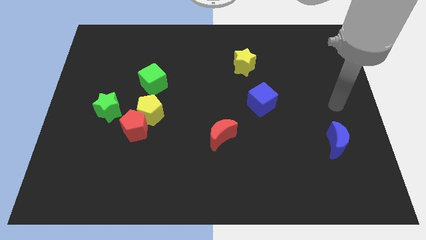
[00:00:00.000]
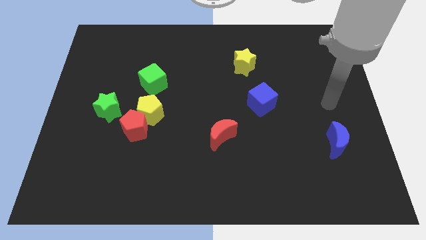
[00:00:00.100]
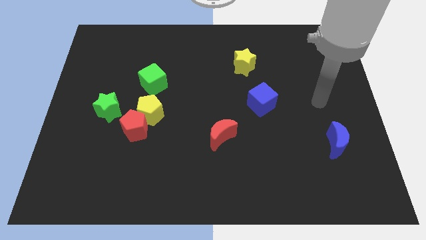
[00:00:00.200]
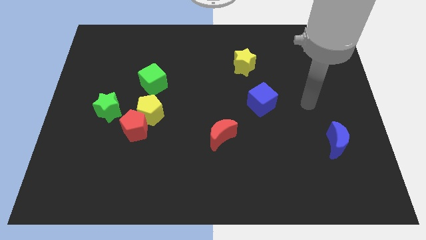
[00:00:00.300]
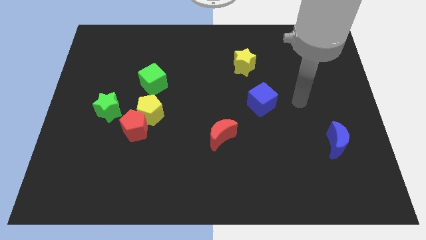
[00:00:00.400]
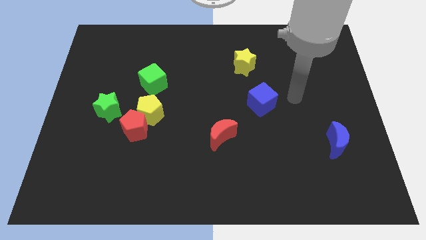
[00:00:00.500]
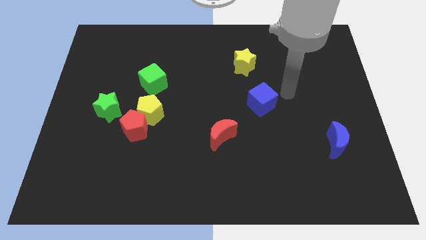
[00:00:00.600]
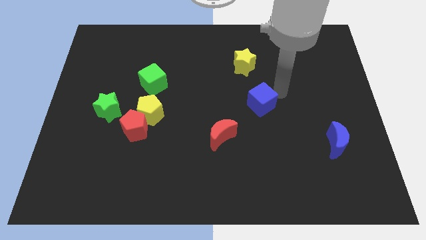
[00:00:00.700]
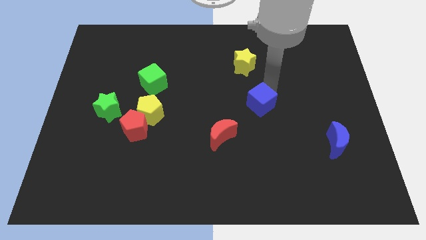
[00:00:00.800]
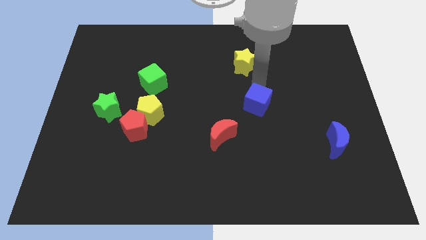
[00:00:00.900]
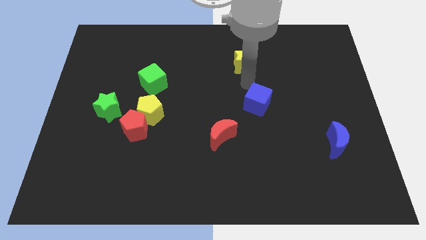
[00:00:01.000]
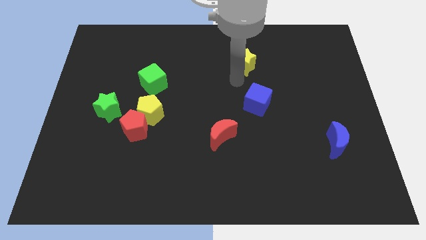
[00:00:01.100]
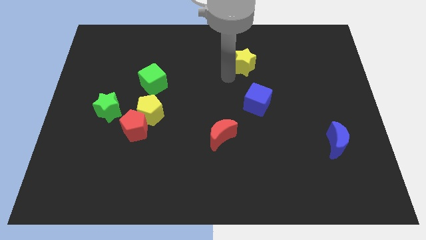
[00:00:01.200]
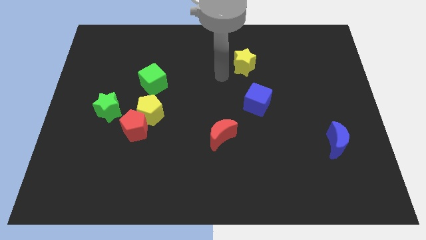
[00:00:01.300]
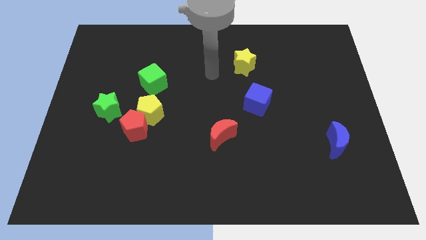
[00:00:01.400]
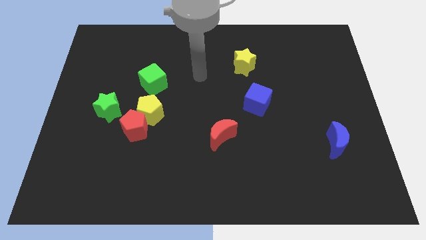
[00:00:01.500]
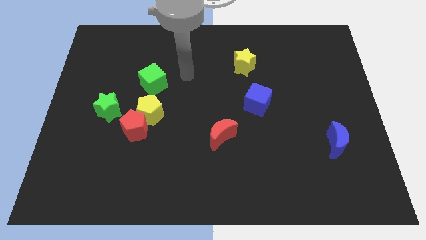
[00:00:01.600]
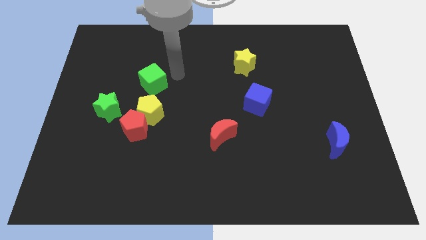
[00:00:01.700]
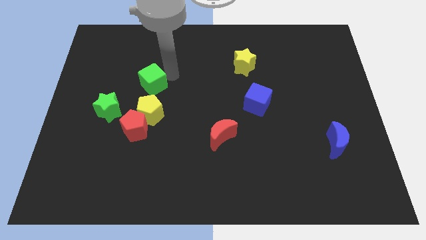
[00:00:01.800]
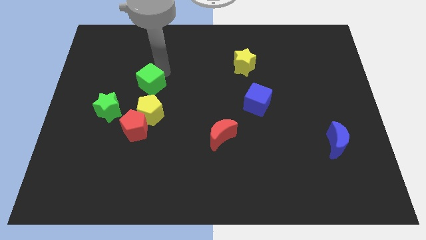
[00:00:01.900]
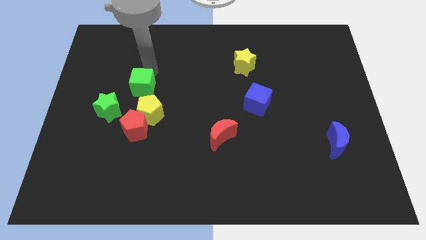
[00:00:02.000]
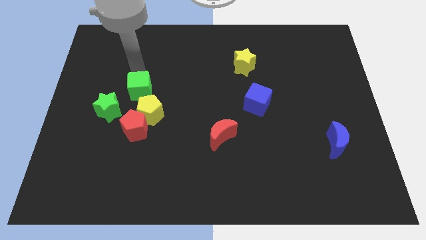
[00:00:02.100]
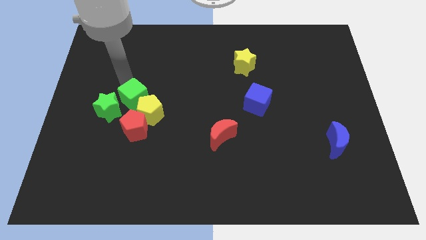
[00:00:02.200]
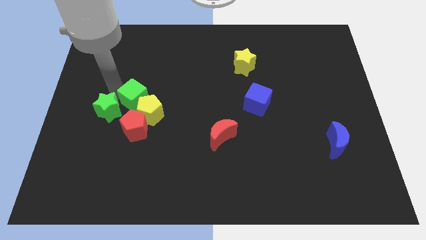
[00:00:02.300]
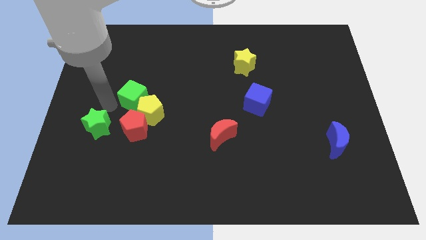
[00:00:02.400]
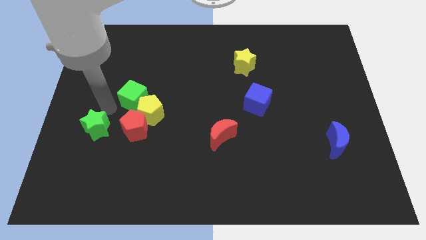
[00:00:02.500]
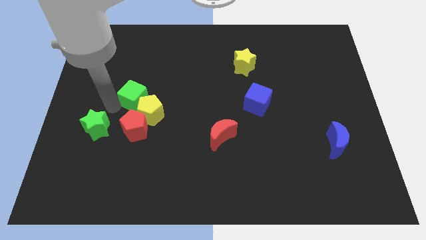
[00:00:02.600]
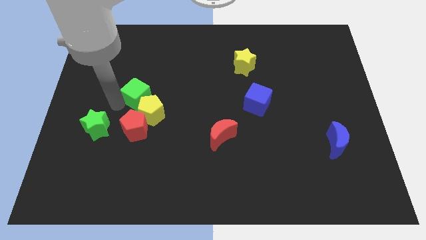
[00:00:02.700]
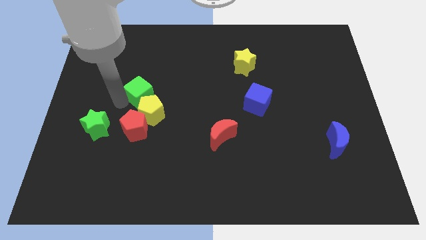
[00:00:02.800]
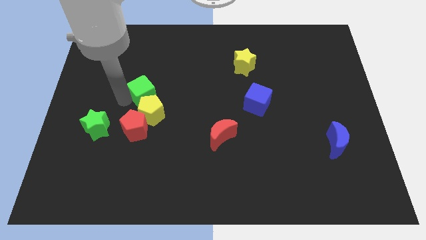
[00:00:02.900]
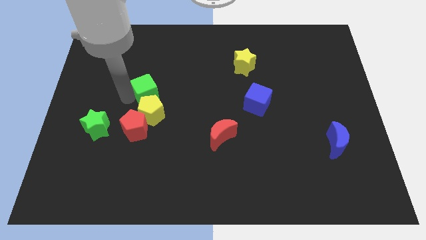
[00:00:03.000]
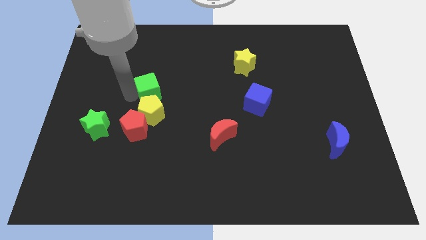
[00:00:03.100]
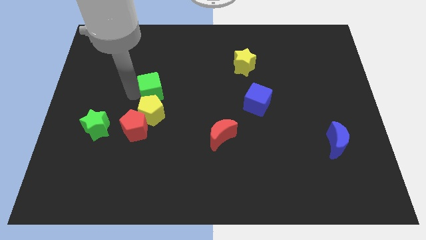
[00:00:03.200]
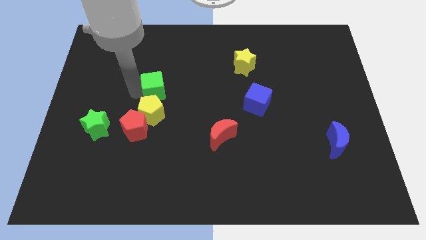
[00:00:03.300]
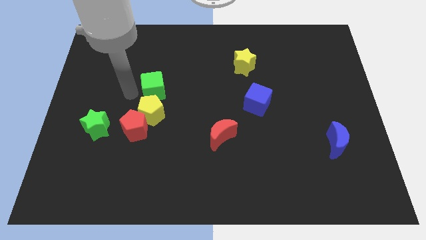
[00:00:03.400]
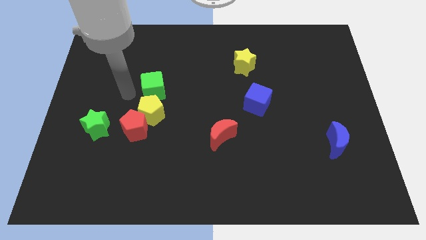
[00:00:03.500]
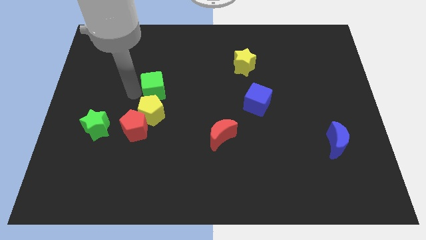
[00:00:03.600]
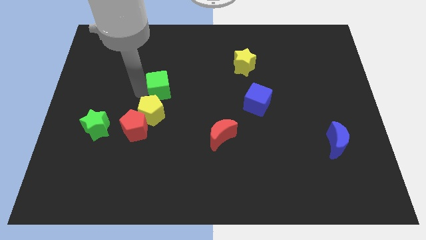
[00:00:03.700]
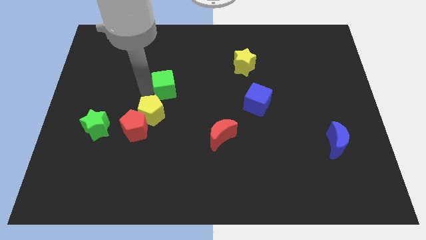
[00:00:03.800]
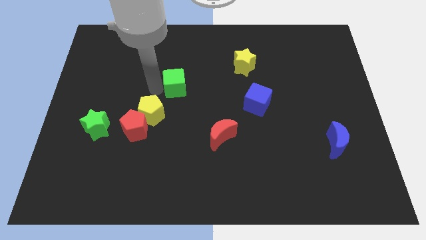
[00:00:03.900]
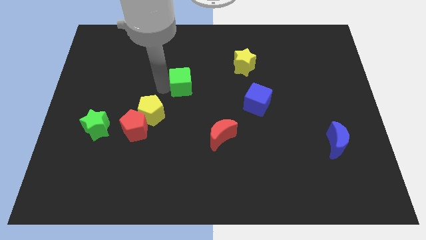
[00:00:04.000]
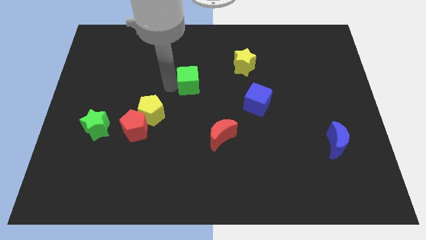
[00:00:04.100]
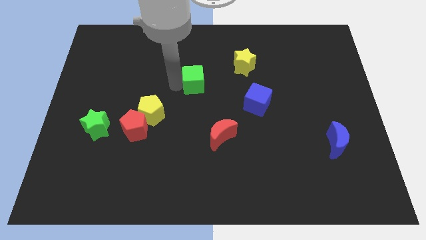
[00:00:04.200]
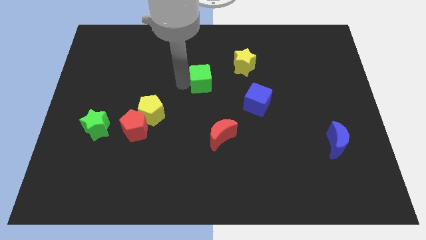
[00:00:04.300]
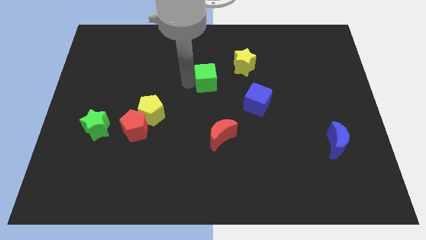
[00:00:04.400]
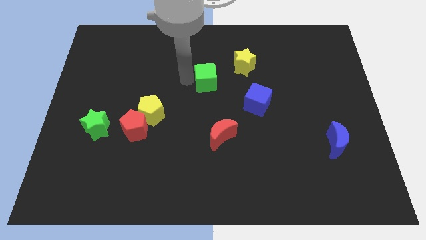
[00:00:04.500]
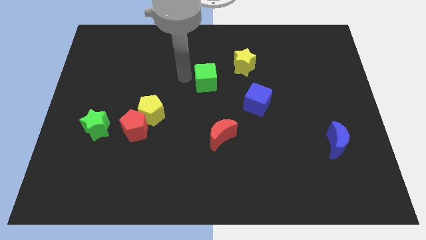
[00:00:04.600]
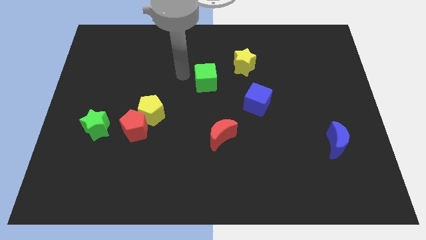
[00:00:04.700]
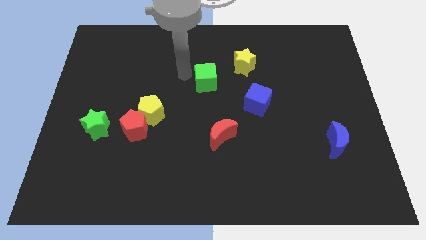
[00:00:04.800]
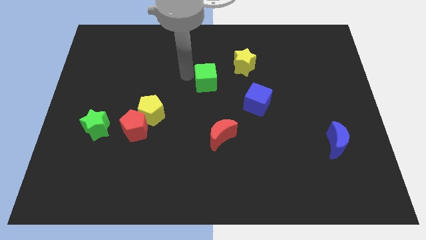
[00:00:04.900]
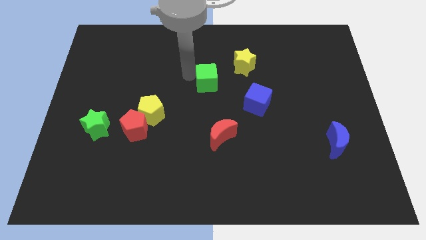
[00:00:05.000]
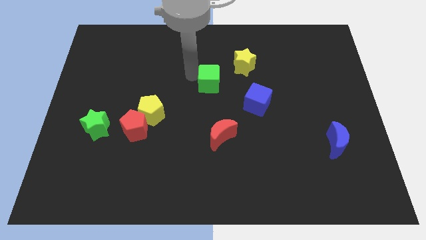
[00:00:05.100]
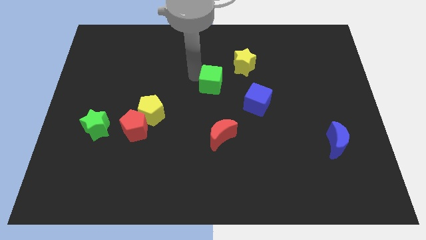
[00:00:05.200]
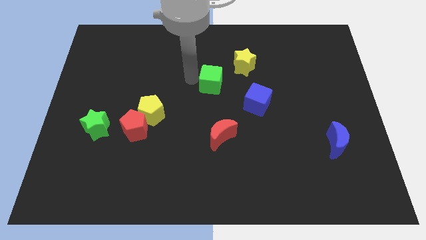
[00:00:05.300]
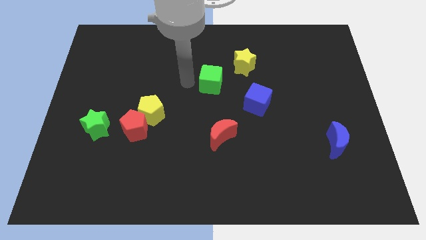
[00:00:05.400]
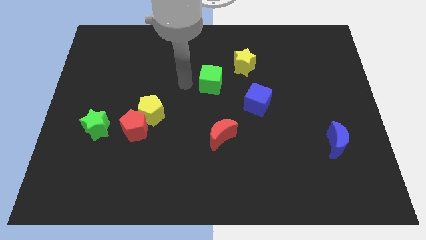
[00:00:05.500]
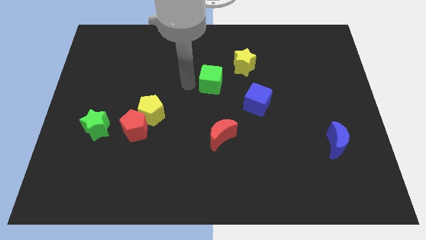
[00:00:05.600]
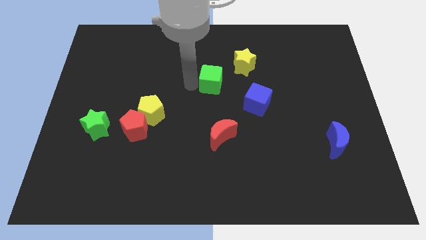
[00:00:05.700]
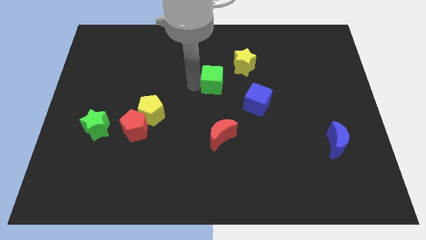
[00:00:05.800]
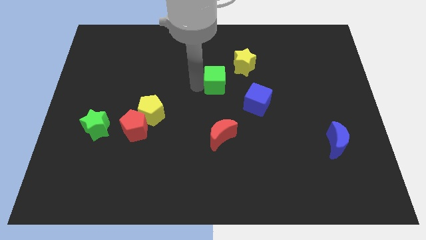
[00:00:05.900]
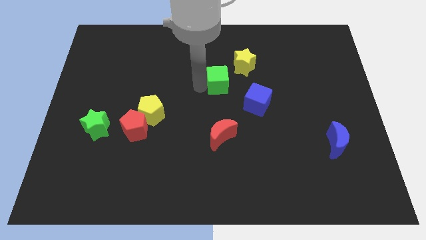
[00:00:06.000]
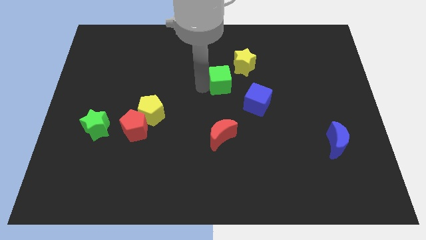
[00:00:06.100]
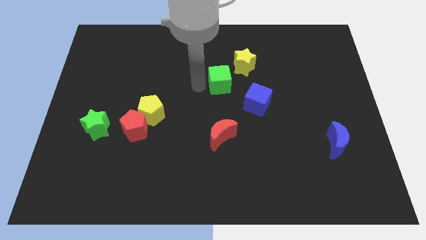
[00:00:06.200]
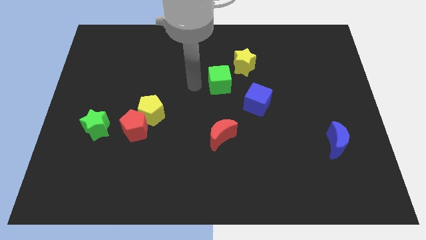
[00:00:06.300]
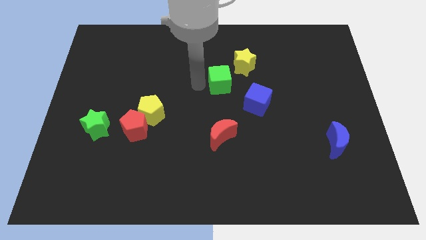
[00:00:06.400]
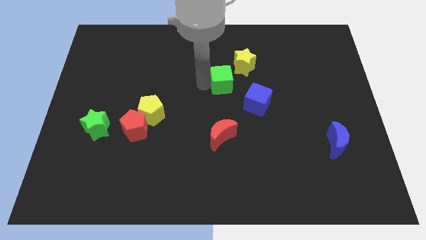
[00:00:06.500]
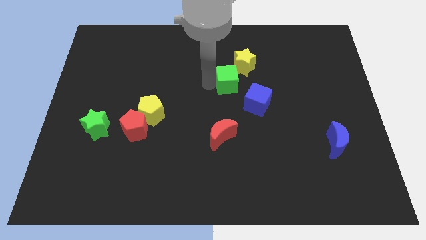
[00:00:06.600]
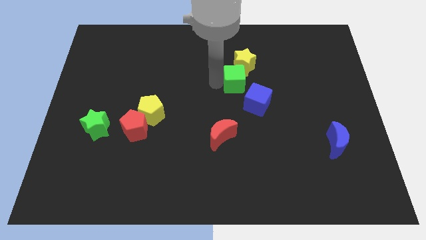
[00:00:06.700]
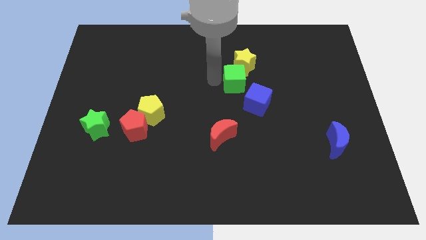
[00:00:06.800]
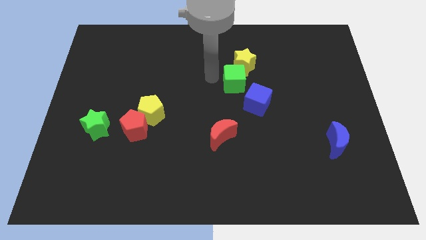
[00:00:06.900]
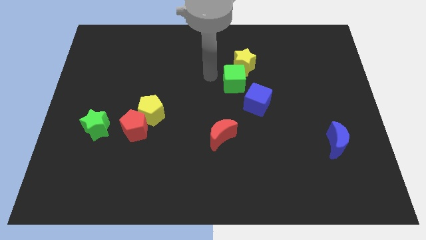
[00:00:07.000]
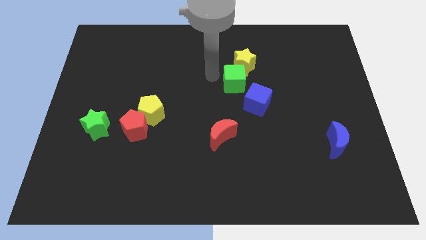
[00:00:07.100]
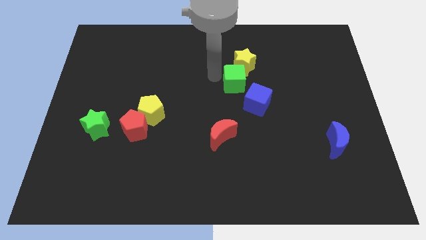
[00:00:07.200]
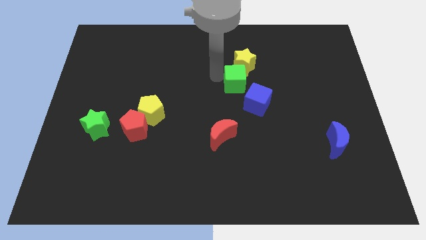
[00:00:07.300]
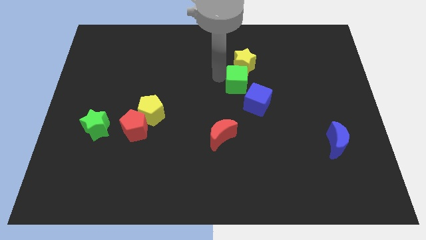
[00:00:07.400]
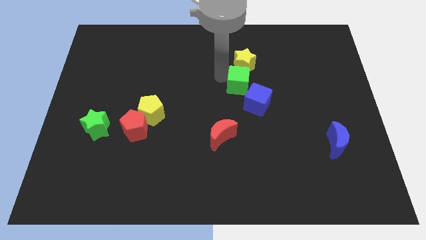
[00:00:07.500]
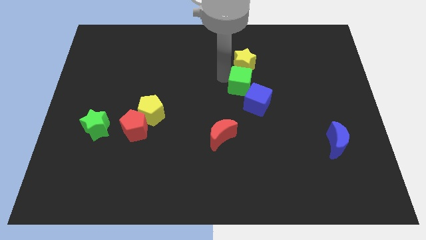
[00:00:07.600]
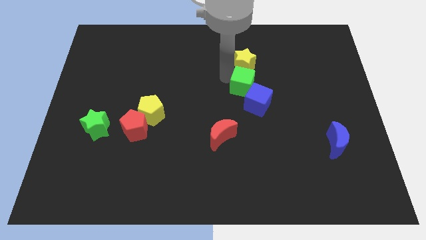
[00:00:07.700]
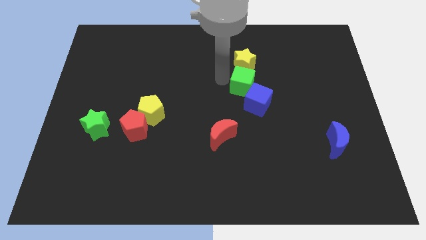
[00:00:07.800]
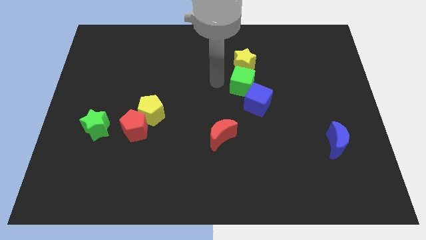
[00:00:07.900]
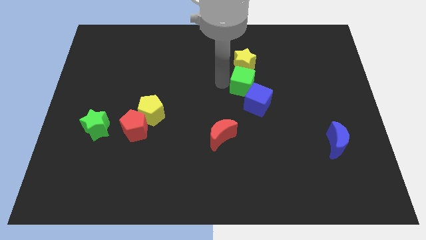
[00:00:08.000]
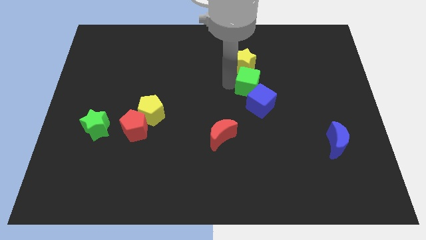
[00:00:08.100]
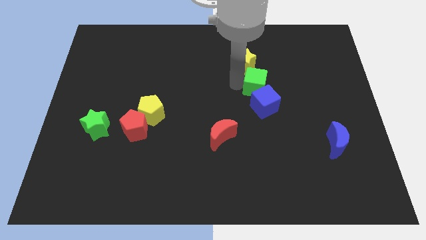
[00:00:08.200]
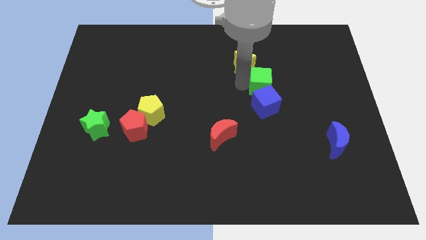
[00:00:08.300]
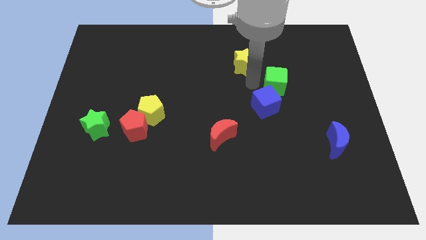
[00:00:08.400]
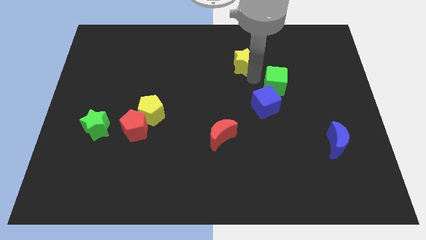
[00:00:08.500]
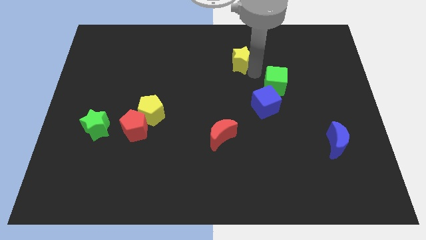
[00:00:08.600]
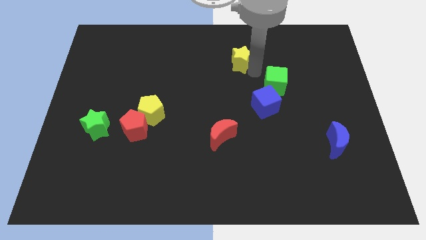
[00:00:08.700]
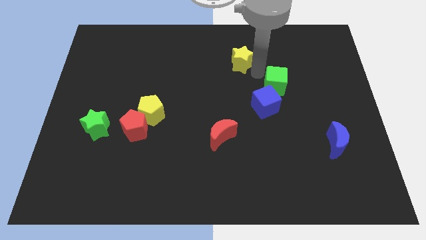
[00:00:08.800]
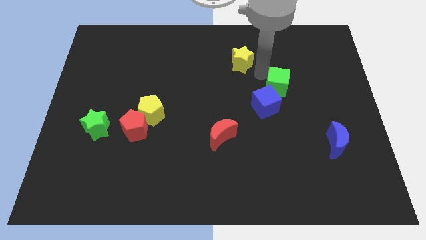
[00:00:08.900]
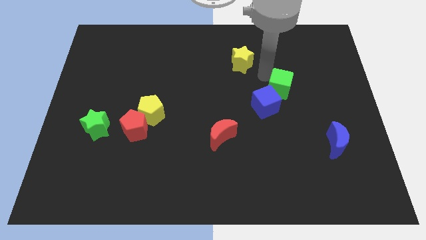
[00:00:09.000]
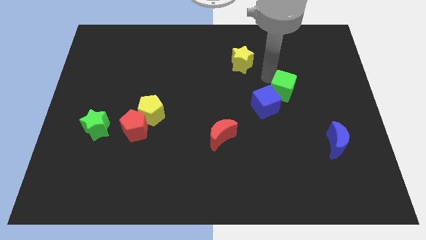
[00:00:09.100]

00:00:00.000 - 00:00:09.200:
move the green cube to the right of the blue cube
